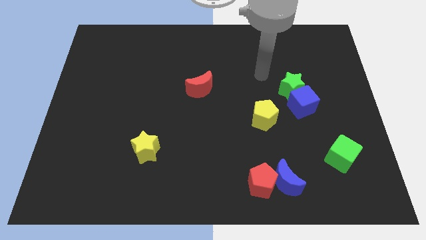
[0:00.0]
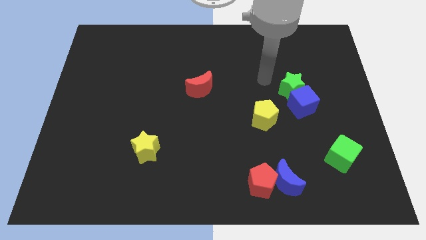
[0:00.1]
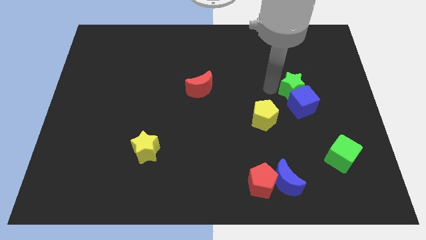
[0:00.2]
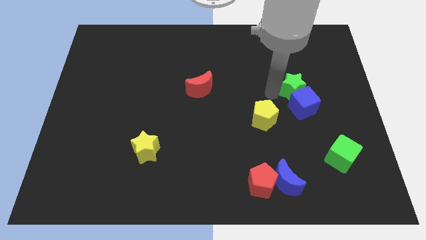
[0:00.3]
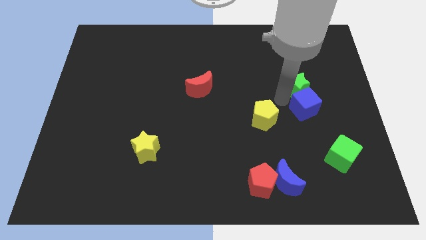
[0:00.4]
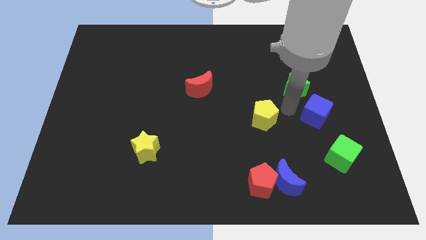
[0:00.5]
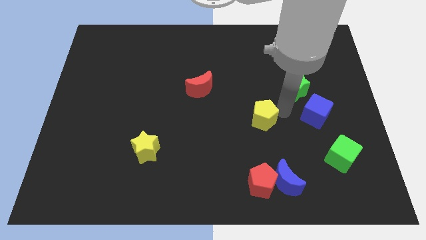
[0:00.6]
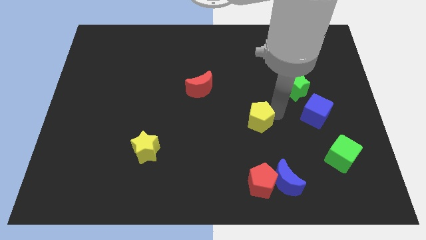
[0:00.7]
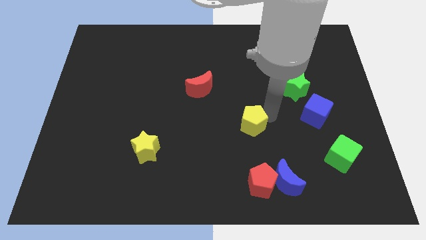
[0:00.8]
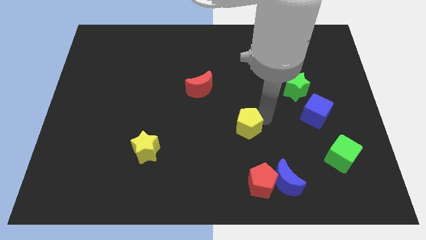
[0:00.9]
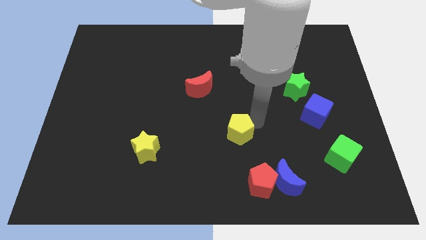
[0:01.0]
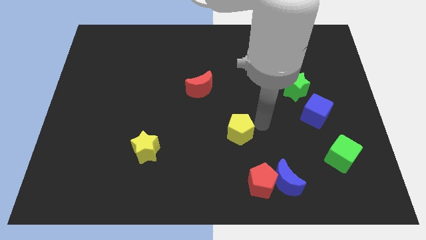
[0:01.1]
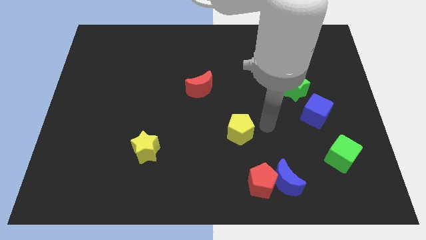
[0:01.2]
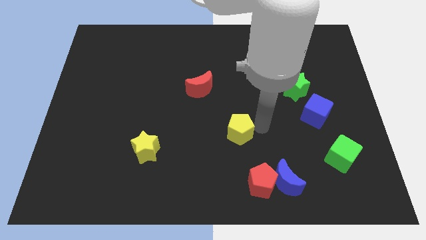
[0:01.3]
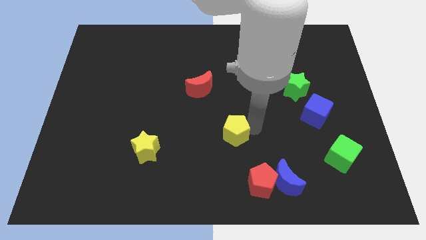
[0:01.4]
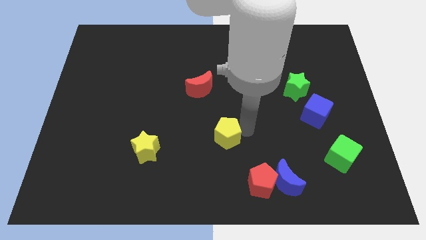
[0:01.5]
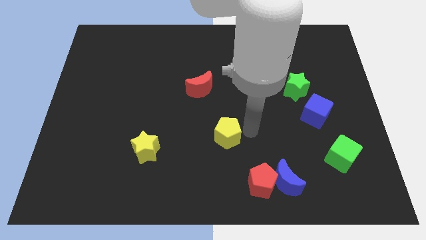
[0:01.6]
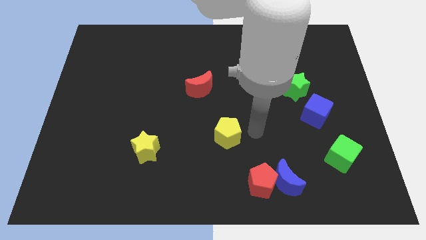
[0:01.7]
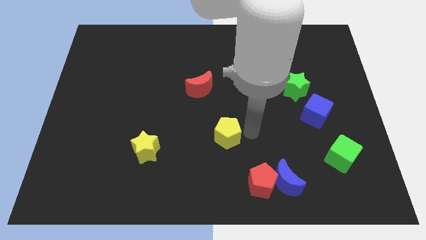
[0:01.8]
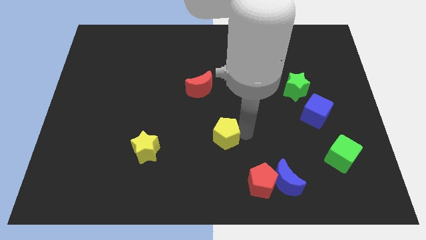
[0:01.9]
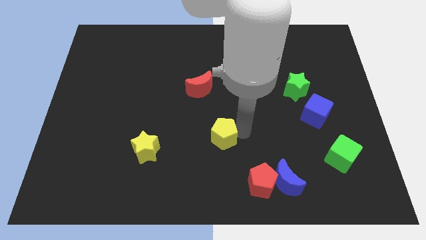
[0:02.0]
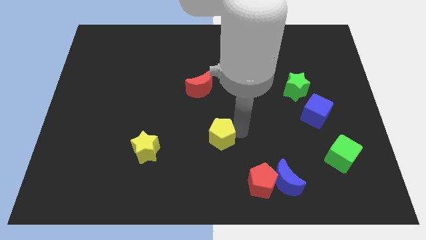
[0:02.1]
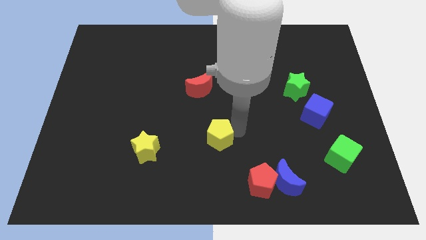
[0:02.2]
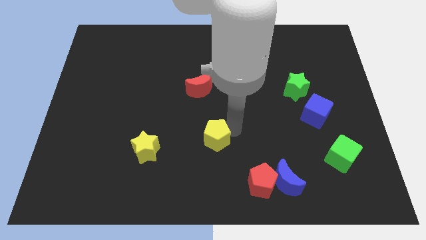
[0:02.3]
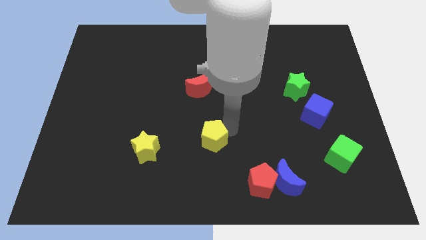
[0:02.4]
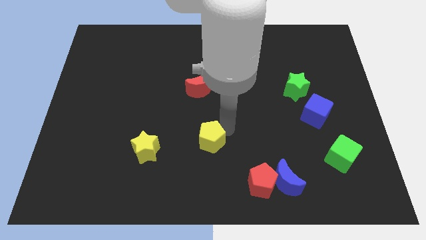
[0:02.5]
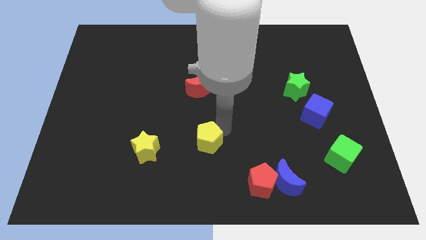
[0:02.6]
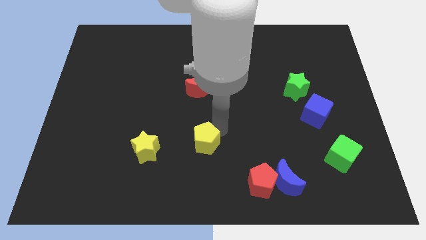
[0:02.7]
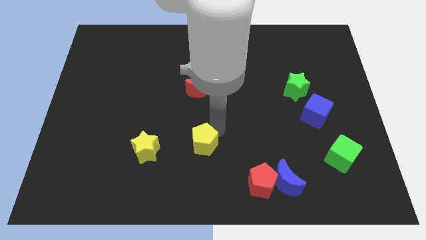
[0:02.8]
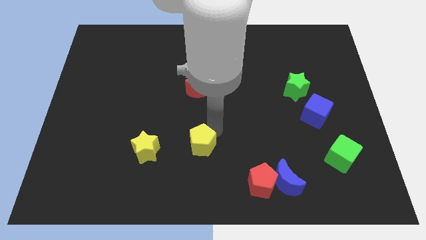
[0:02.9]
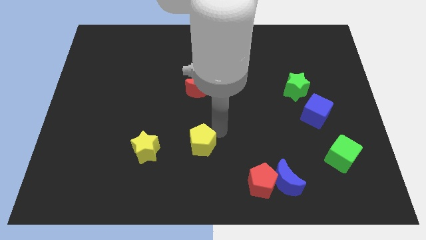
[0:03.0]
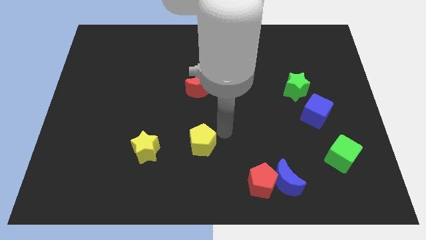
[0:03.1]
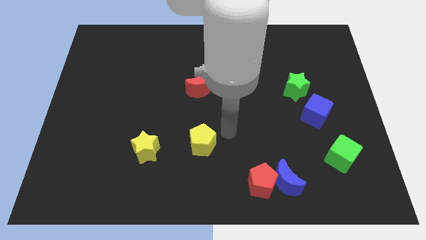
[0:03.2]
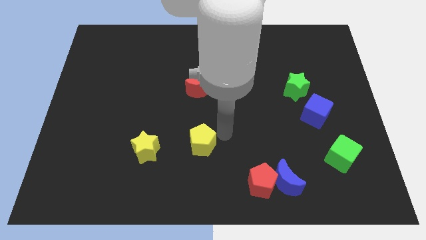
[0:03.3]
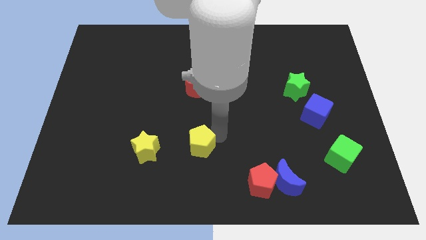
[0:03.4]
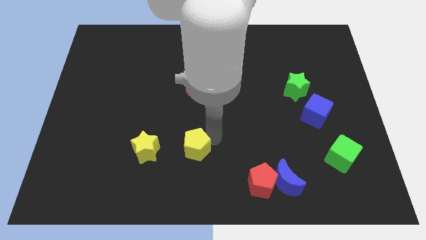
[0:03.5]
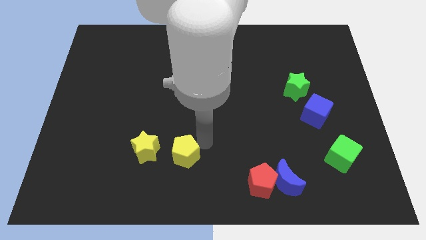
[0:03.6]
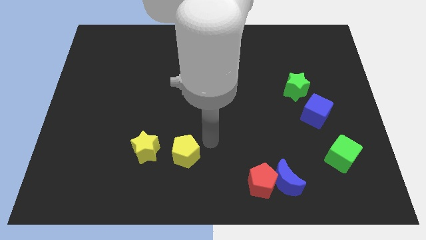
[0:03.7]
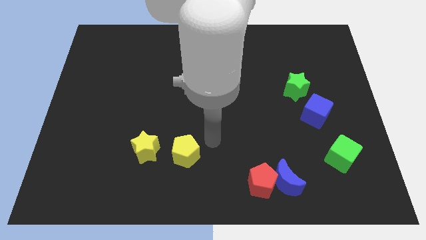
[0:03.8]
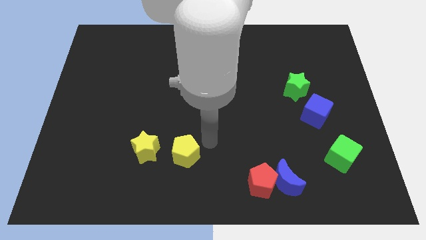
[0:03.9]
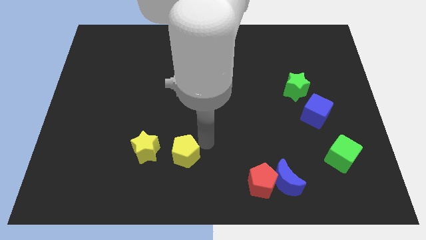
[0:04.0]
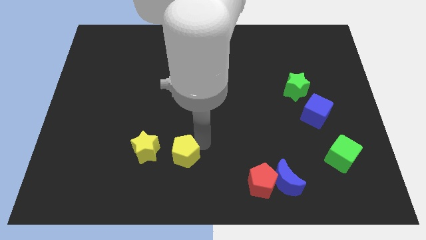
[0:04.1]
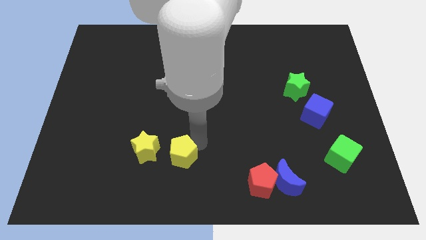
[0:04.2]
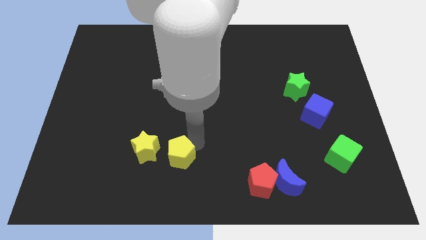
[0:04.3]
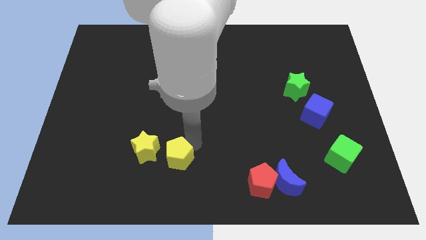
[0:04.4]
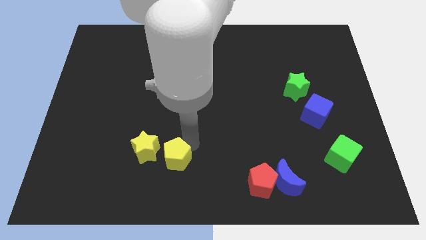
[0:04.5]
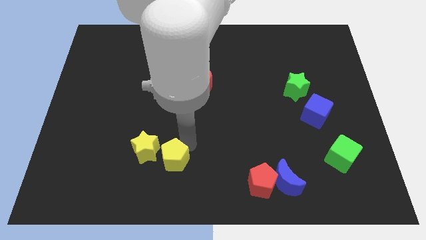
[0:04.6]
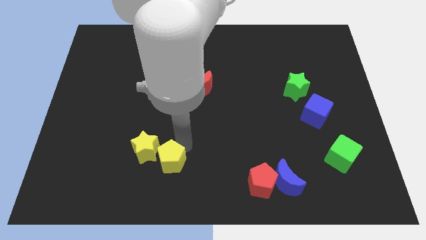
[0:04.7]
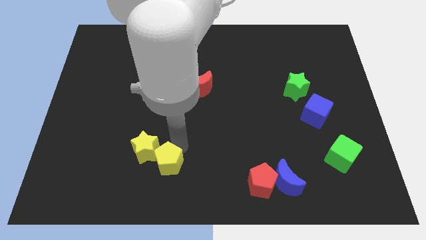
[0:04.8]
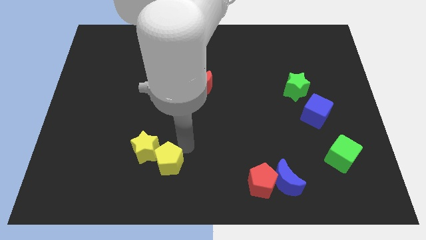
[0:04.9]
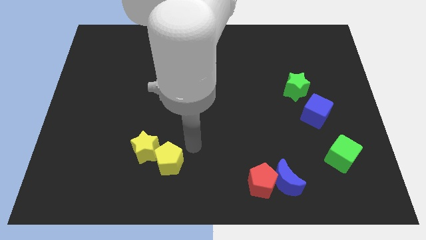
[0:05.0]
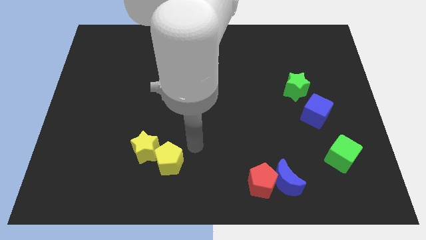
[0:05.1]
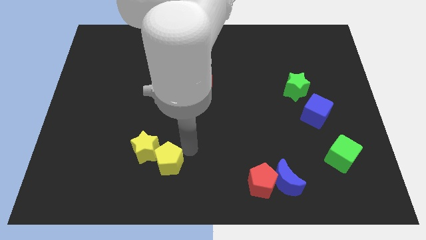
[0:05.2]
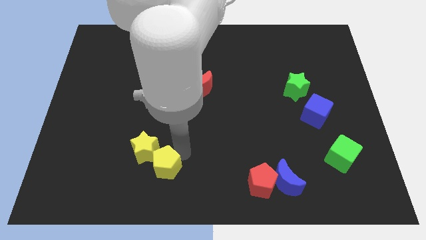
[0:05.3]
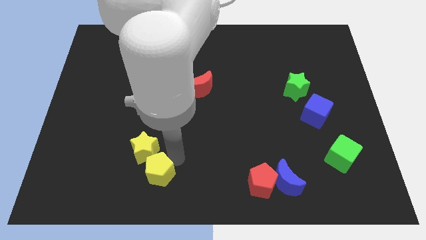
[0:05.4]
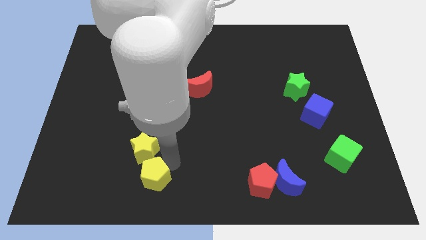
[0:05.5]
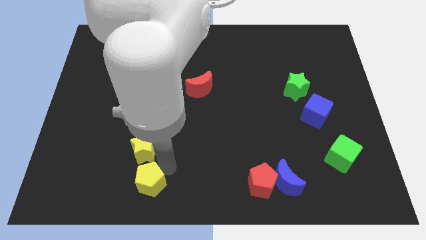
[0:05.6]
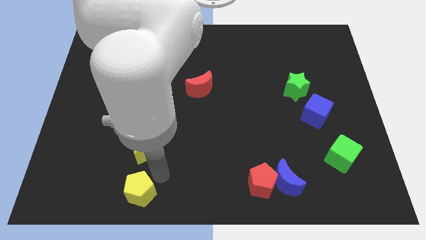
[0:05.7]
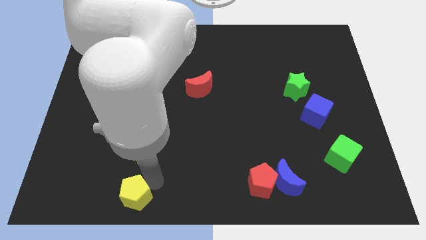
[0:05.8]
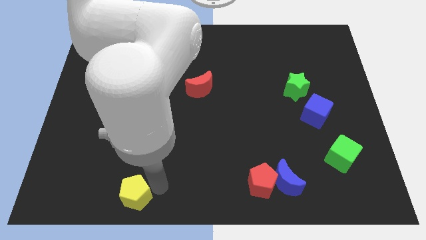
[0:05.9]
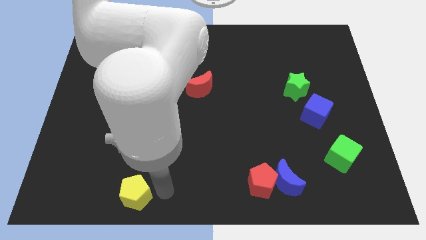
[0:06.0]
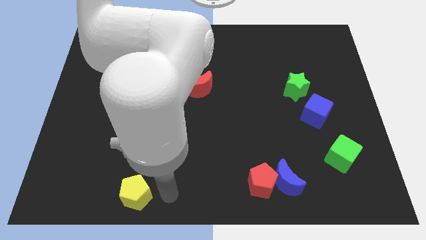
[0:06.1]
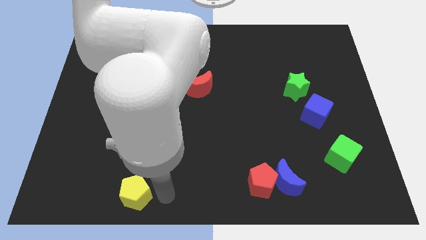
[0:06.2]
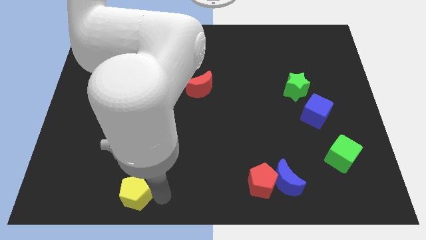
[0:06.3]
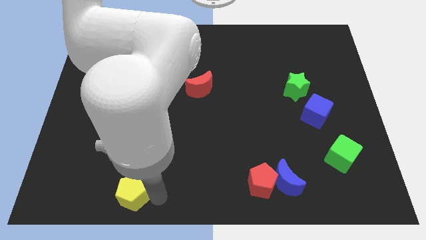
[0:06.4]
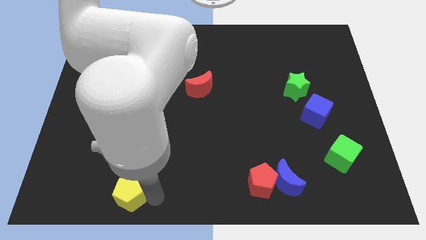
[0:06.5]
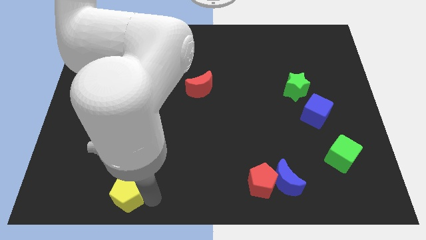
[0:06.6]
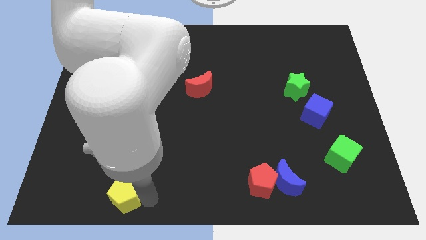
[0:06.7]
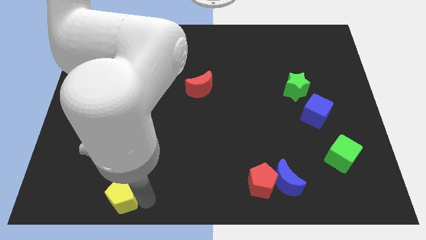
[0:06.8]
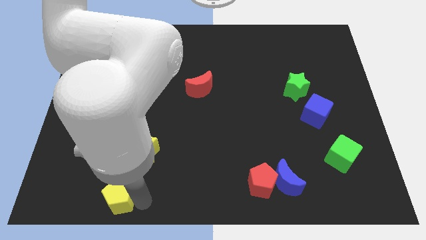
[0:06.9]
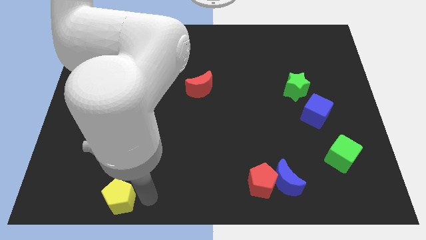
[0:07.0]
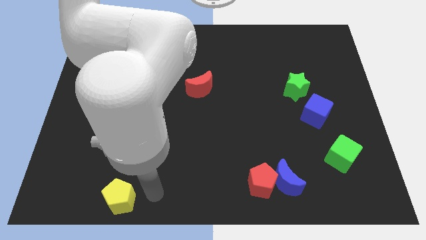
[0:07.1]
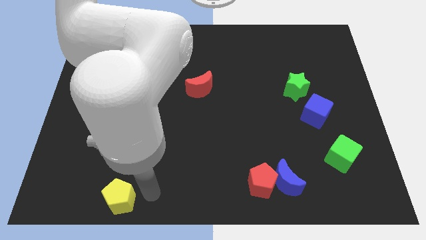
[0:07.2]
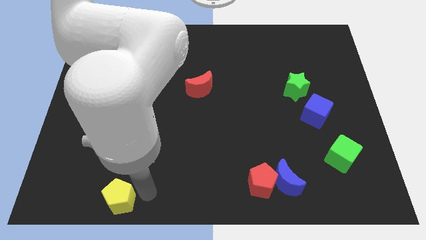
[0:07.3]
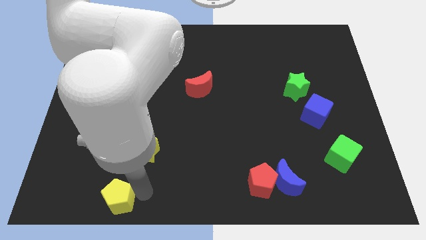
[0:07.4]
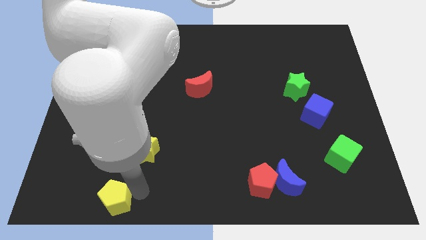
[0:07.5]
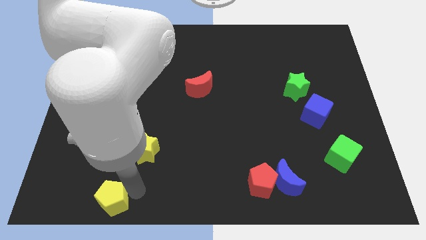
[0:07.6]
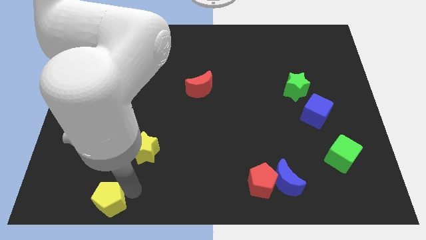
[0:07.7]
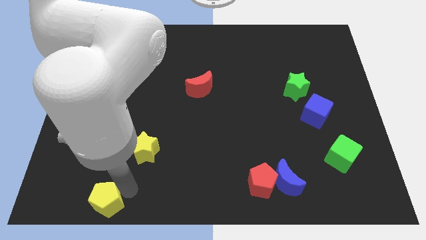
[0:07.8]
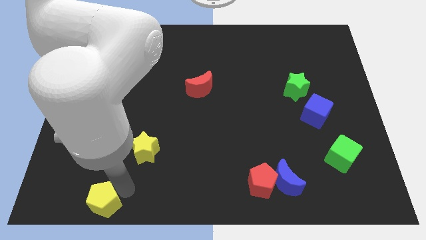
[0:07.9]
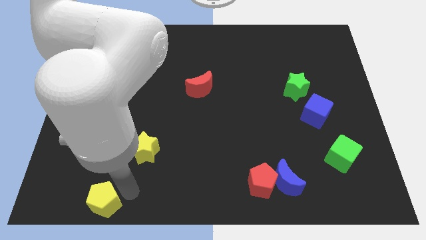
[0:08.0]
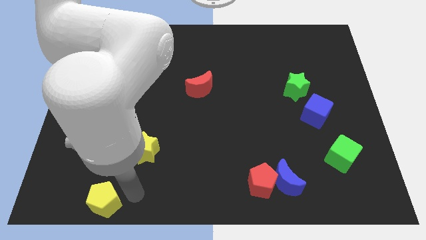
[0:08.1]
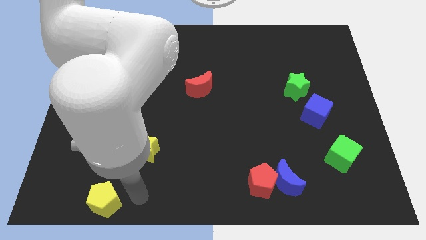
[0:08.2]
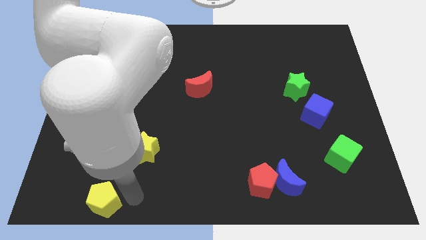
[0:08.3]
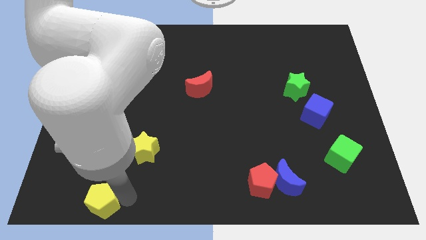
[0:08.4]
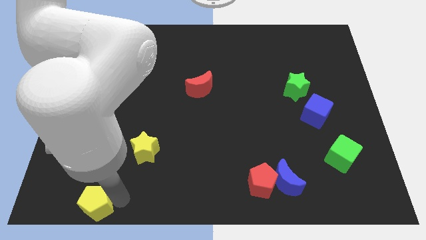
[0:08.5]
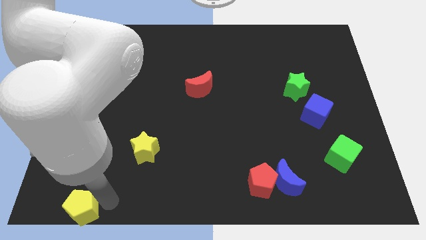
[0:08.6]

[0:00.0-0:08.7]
put the yellow pentagon to the bottom left
